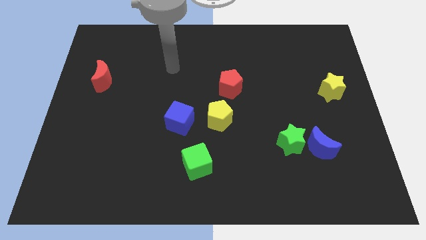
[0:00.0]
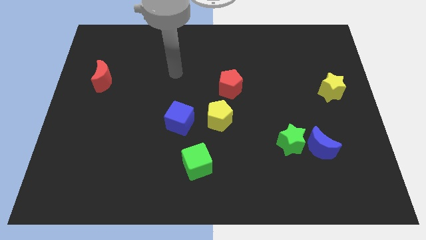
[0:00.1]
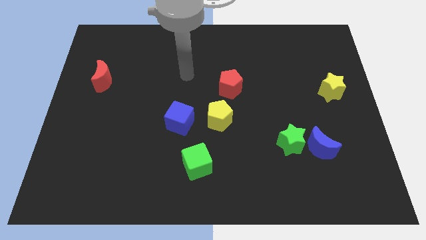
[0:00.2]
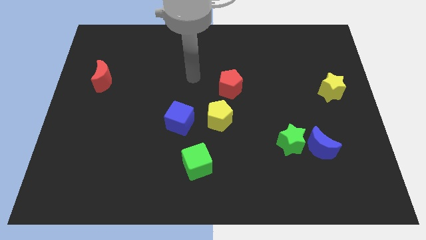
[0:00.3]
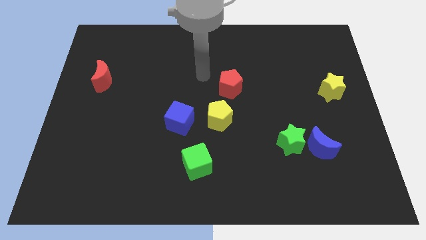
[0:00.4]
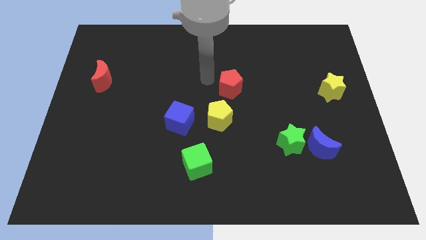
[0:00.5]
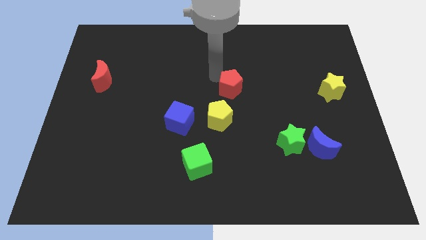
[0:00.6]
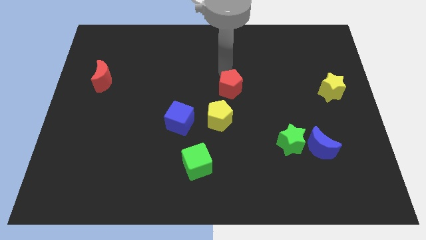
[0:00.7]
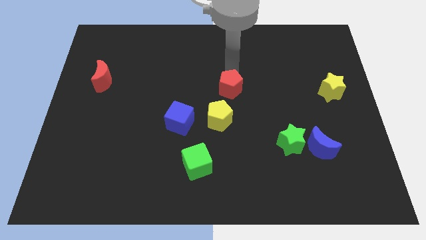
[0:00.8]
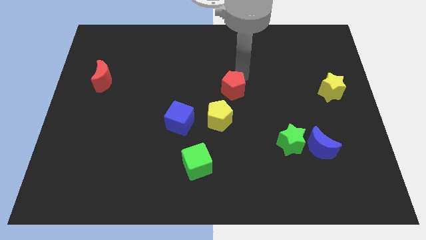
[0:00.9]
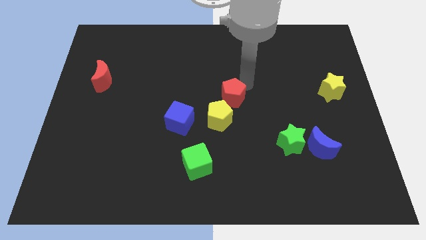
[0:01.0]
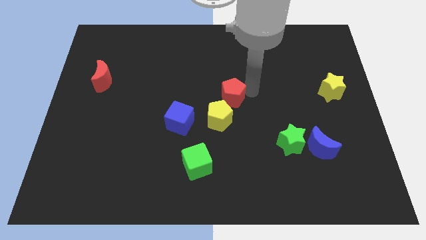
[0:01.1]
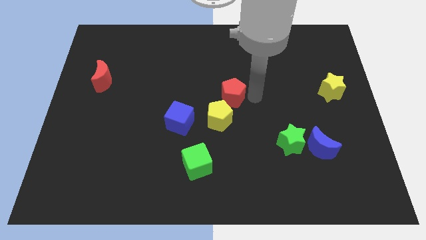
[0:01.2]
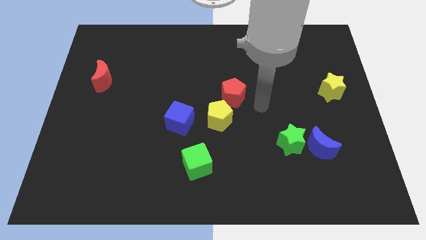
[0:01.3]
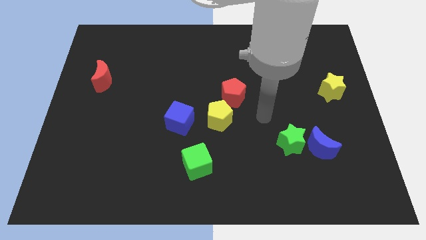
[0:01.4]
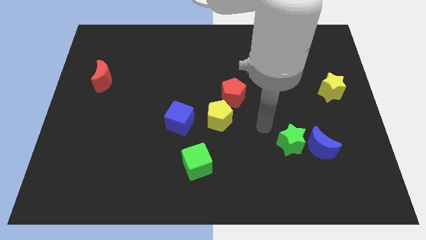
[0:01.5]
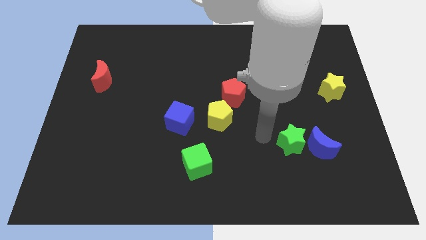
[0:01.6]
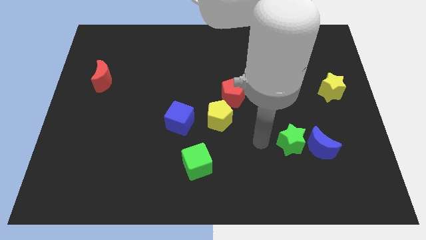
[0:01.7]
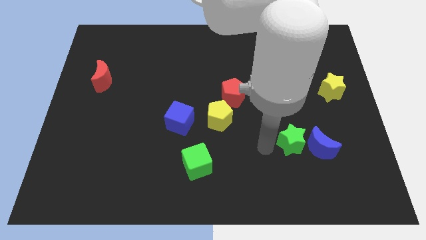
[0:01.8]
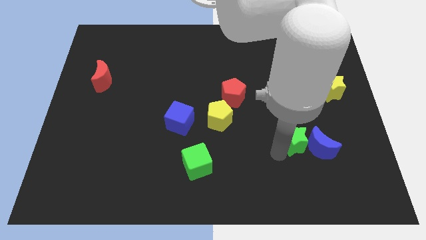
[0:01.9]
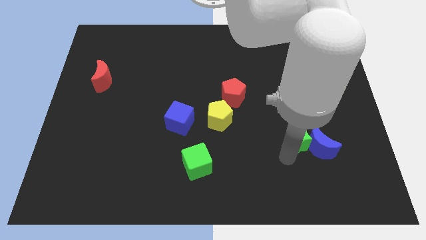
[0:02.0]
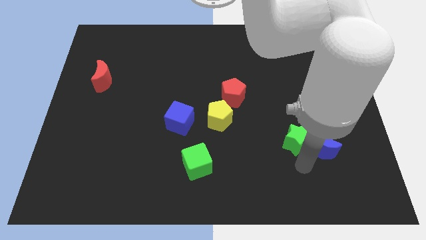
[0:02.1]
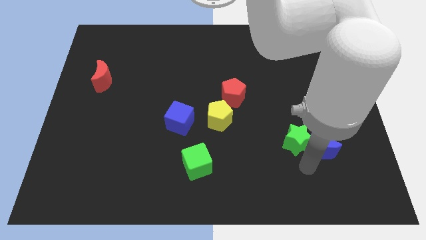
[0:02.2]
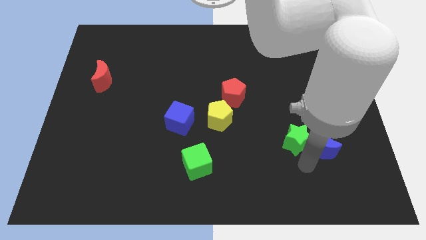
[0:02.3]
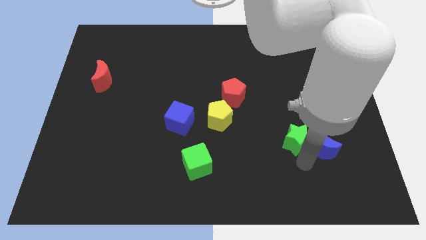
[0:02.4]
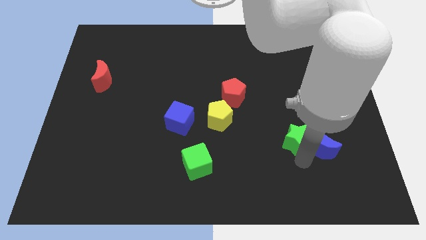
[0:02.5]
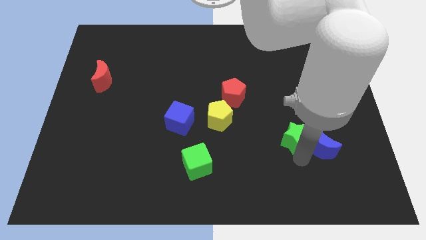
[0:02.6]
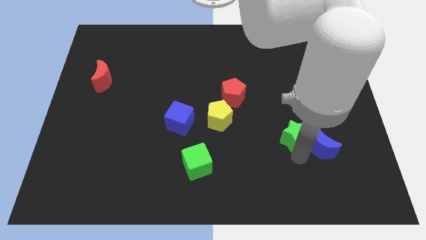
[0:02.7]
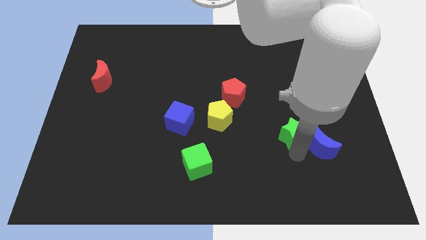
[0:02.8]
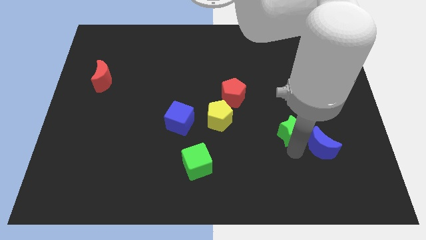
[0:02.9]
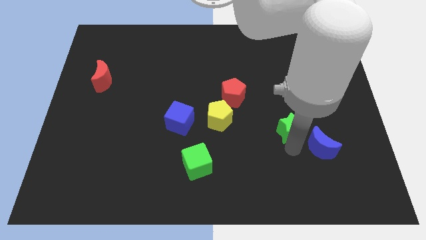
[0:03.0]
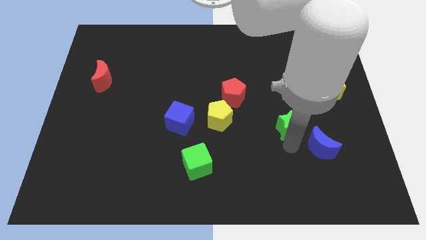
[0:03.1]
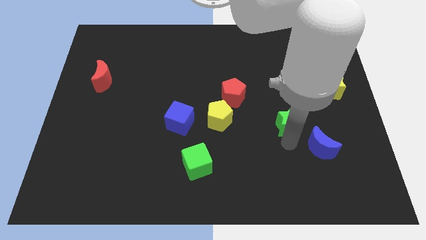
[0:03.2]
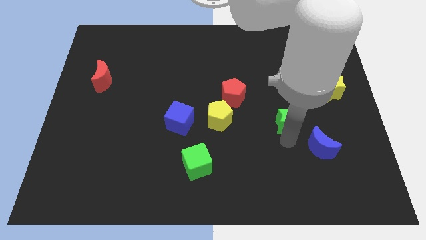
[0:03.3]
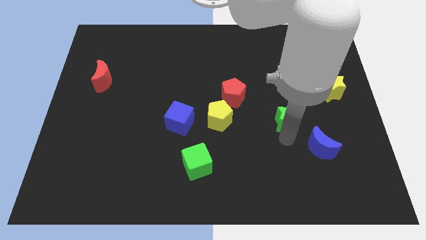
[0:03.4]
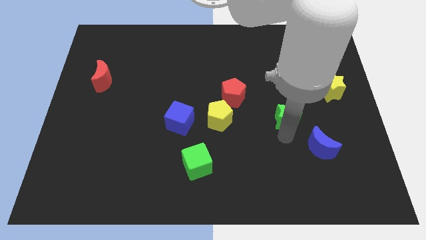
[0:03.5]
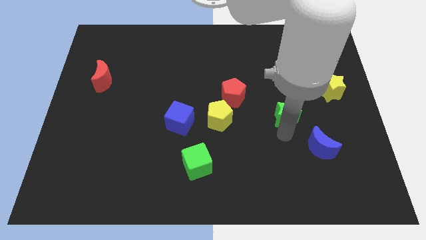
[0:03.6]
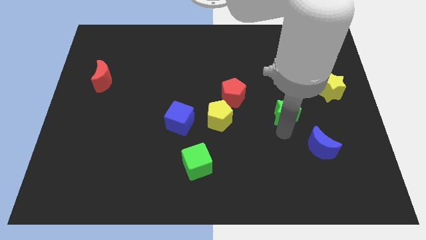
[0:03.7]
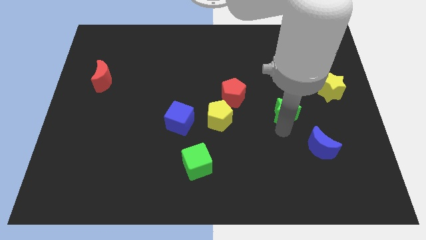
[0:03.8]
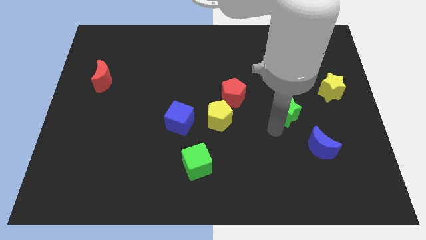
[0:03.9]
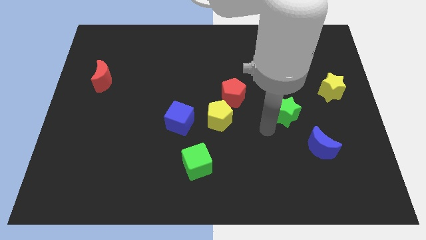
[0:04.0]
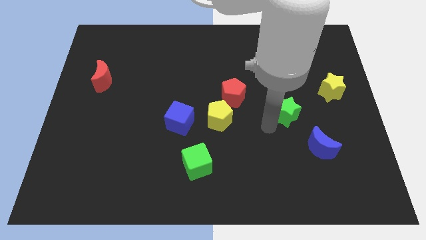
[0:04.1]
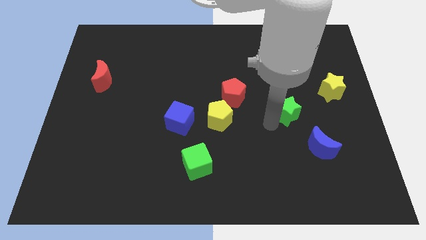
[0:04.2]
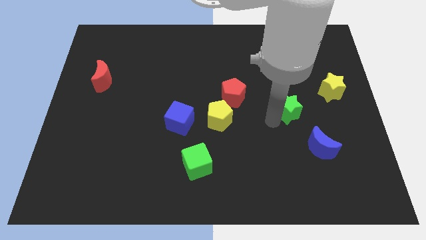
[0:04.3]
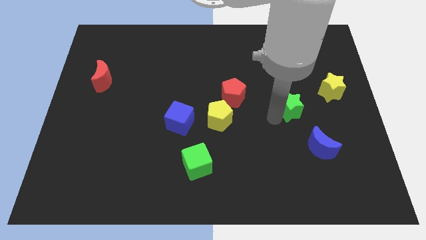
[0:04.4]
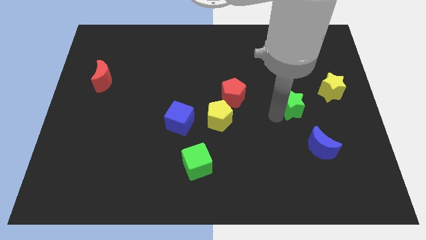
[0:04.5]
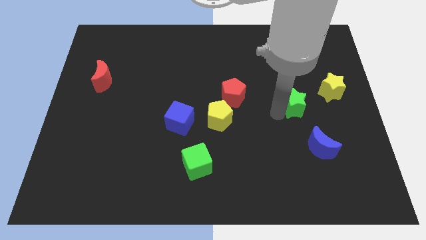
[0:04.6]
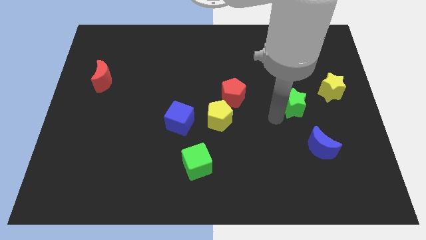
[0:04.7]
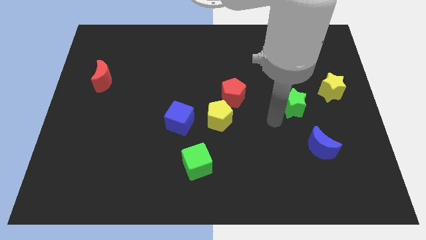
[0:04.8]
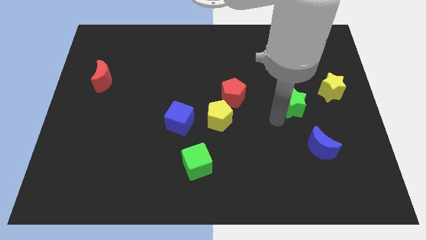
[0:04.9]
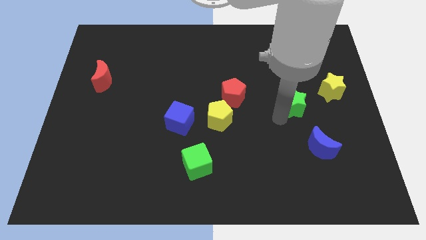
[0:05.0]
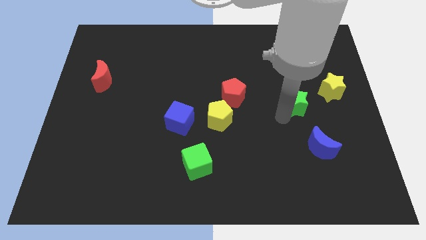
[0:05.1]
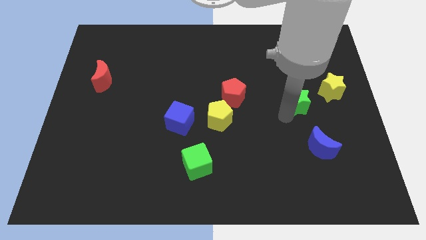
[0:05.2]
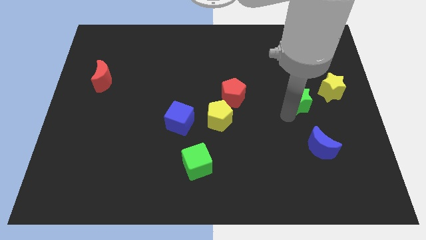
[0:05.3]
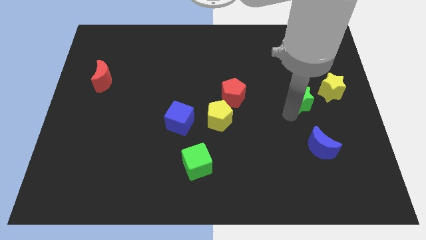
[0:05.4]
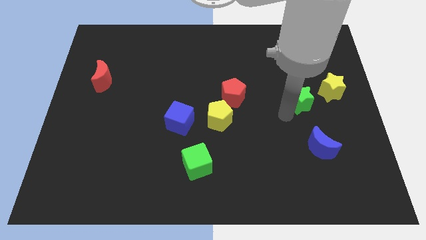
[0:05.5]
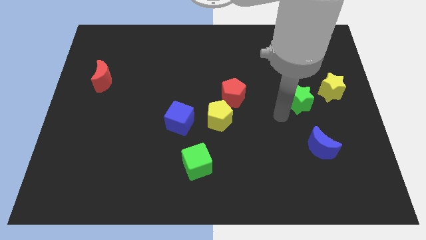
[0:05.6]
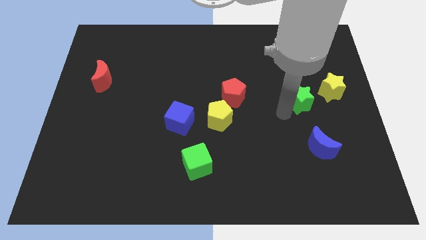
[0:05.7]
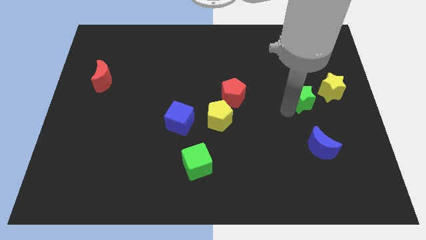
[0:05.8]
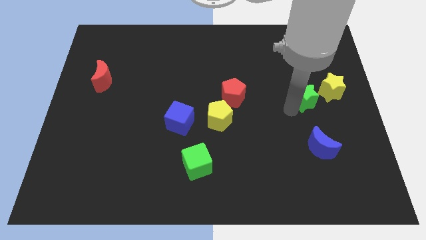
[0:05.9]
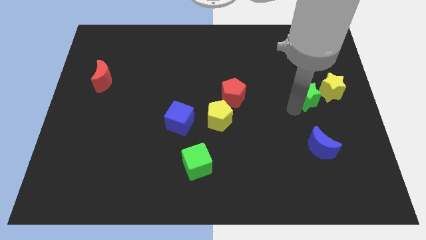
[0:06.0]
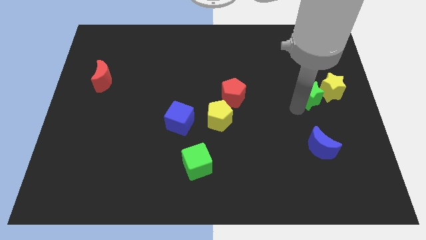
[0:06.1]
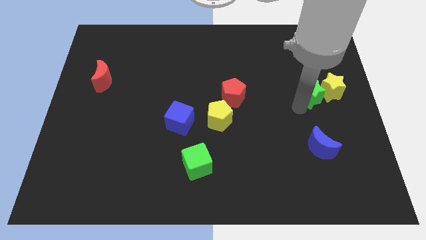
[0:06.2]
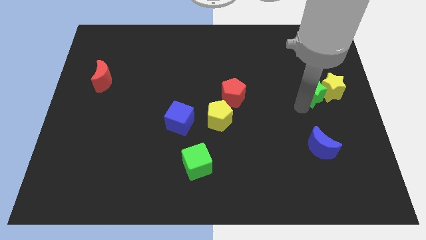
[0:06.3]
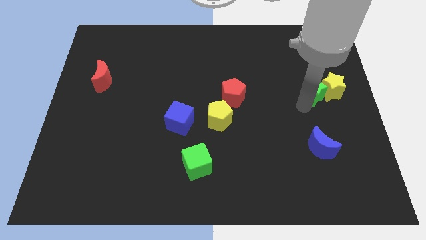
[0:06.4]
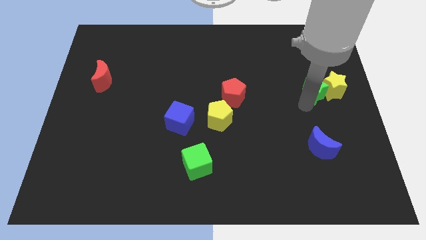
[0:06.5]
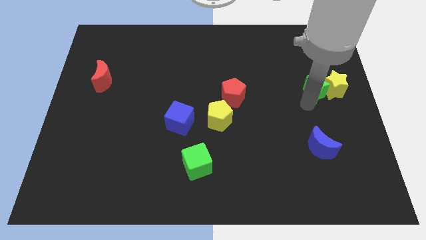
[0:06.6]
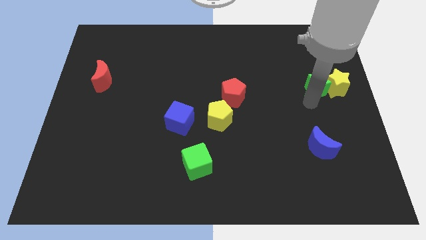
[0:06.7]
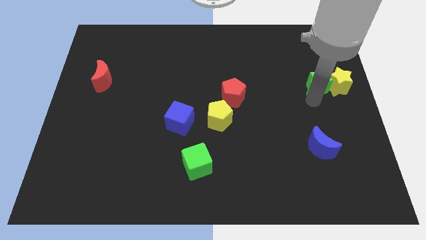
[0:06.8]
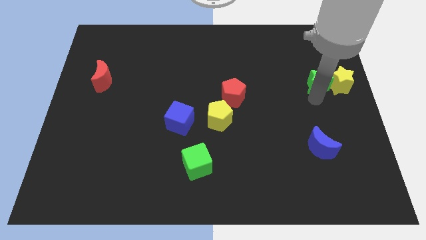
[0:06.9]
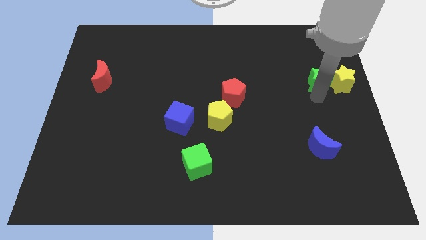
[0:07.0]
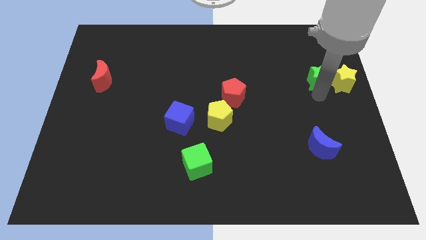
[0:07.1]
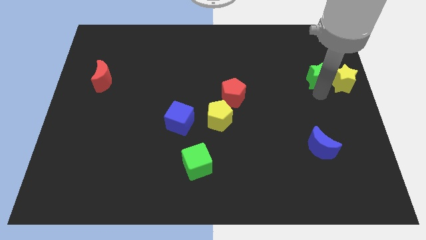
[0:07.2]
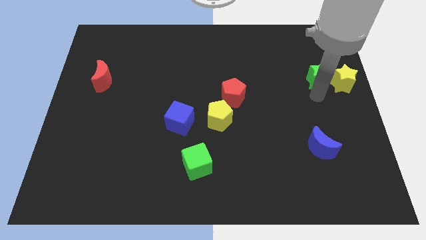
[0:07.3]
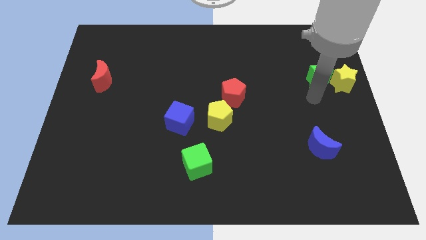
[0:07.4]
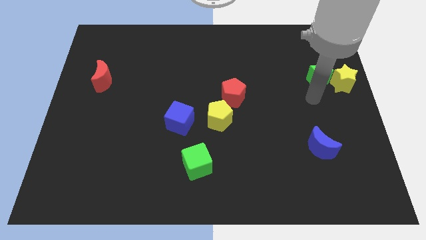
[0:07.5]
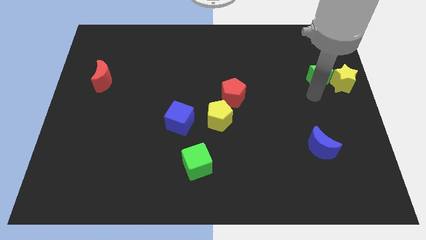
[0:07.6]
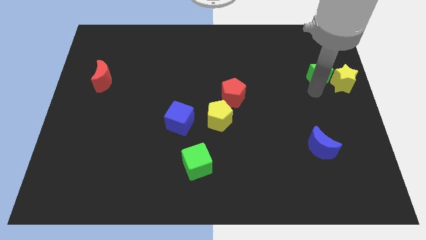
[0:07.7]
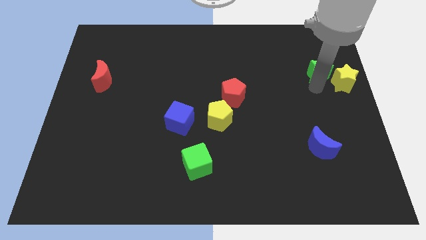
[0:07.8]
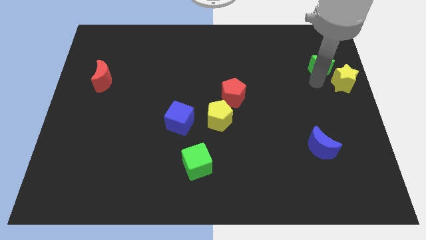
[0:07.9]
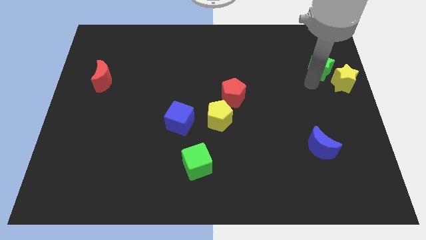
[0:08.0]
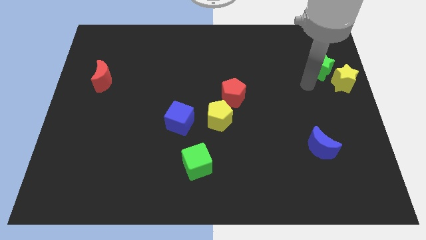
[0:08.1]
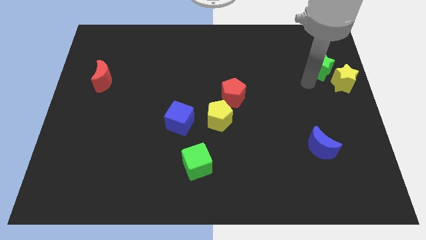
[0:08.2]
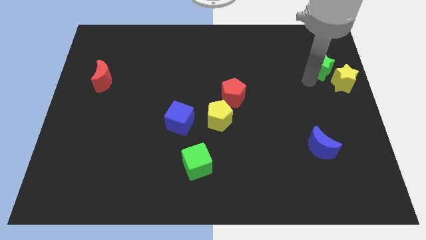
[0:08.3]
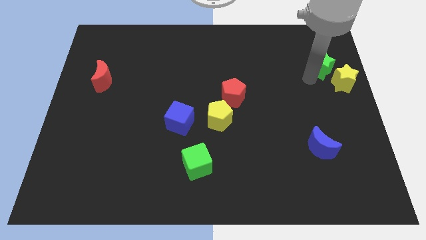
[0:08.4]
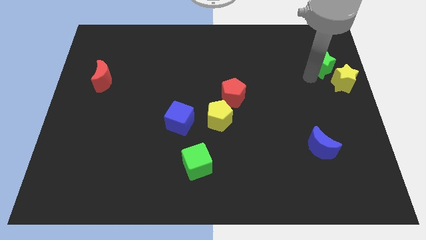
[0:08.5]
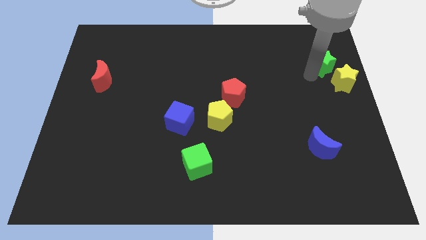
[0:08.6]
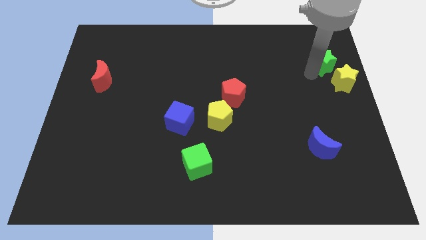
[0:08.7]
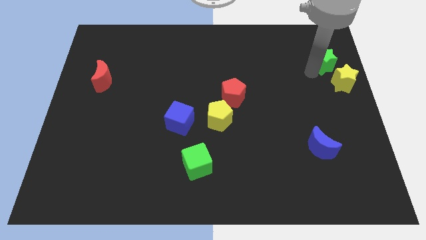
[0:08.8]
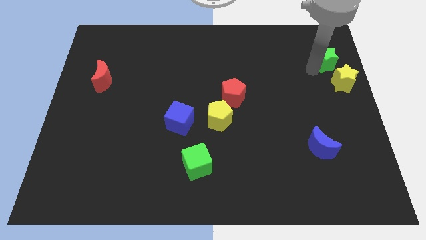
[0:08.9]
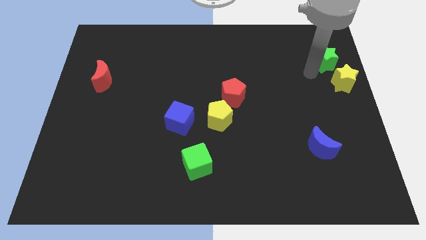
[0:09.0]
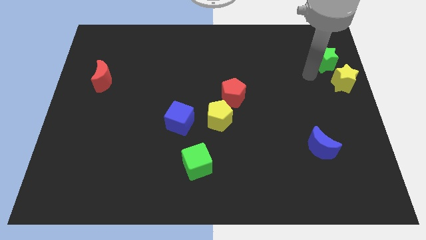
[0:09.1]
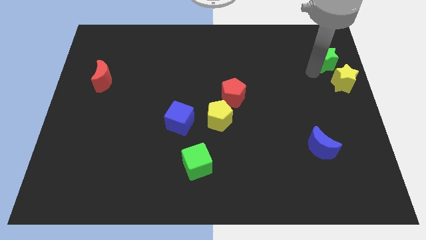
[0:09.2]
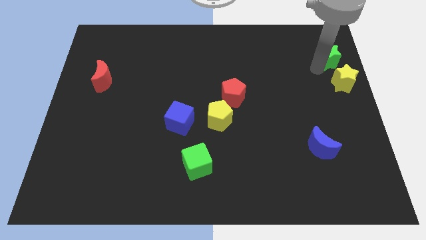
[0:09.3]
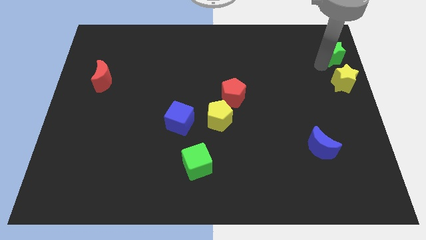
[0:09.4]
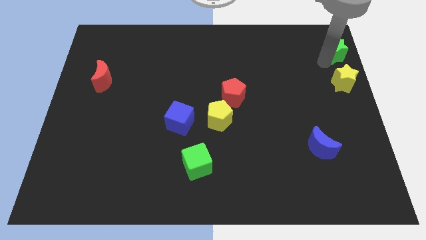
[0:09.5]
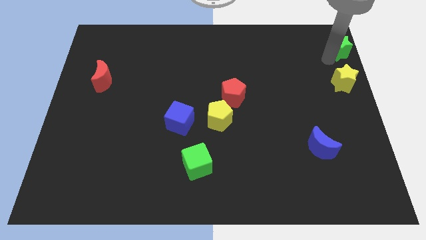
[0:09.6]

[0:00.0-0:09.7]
slide the green star to the upper right corner
